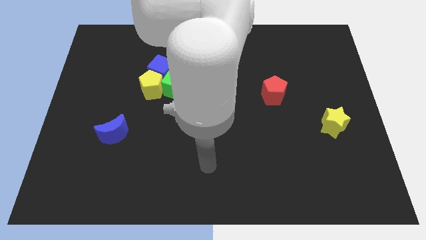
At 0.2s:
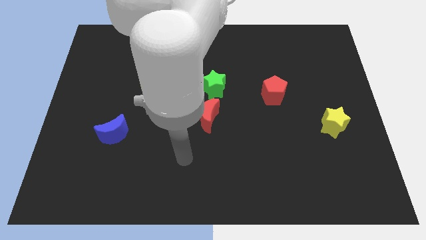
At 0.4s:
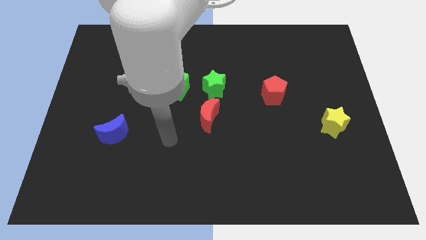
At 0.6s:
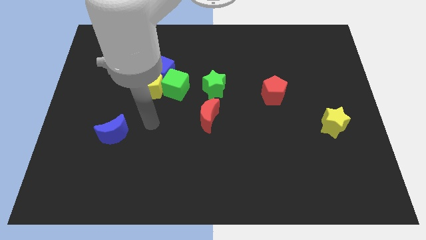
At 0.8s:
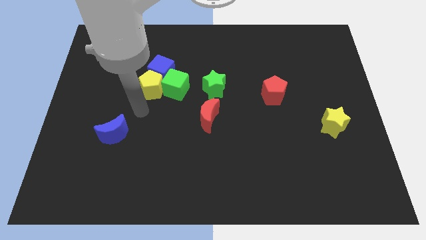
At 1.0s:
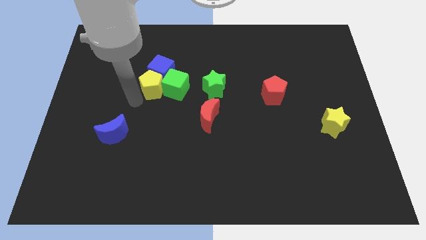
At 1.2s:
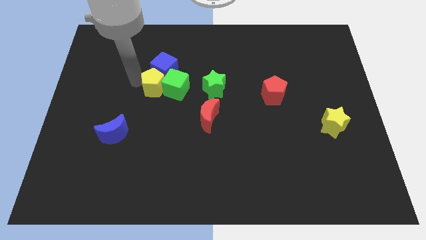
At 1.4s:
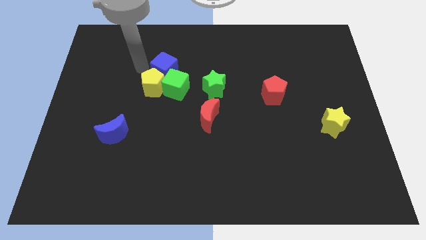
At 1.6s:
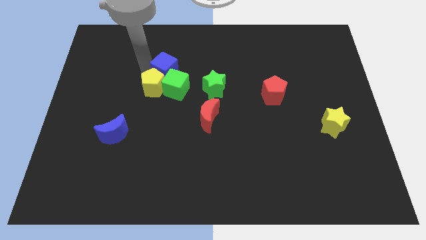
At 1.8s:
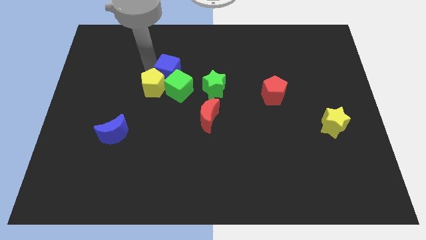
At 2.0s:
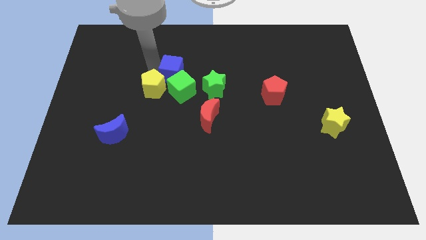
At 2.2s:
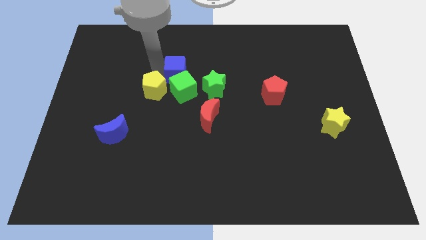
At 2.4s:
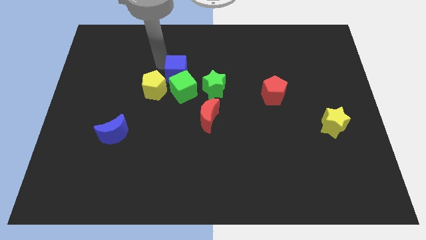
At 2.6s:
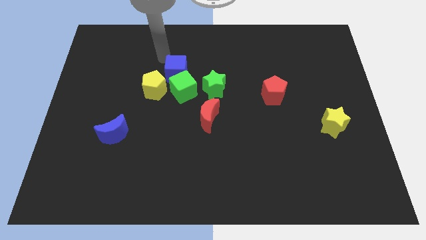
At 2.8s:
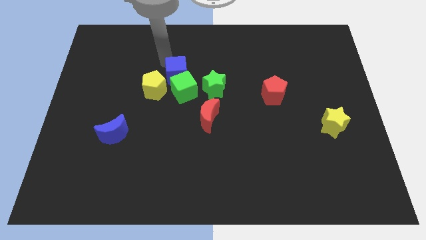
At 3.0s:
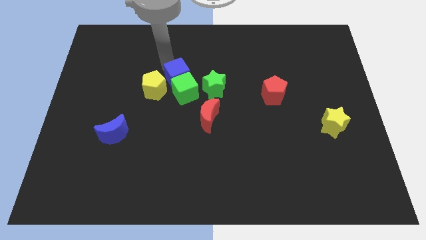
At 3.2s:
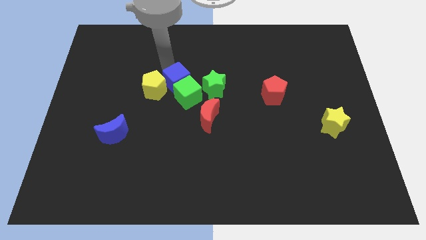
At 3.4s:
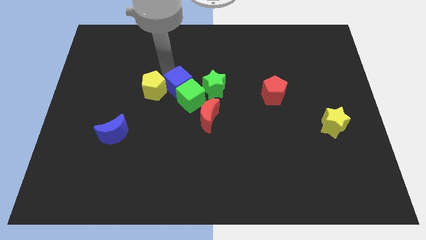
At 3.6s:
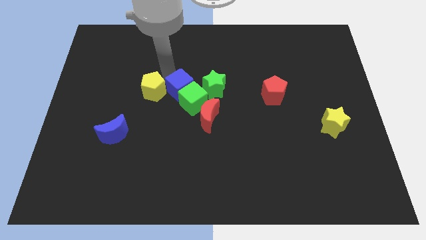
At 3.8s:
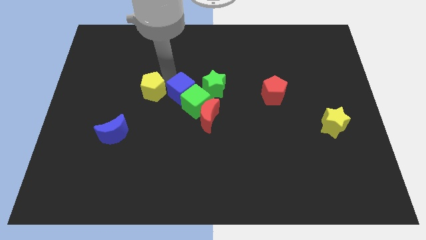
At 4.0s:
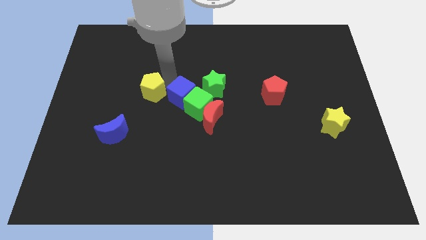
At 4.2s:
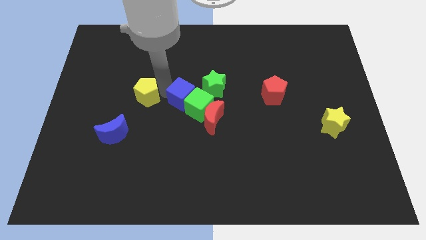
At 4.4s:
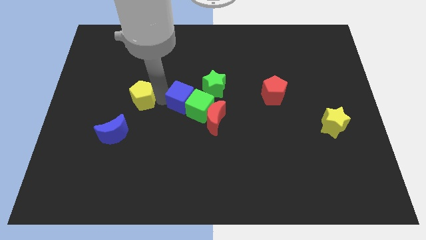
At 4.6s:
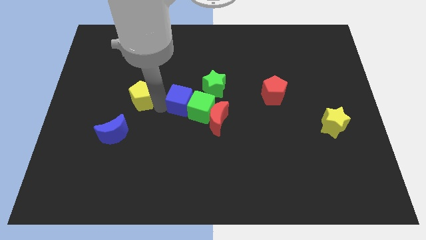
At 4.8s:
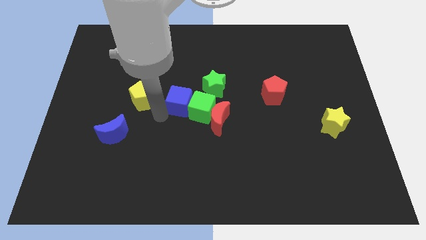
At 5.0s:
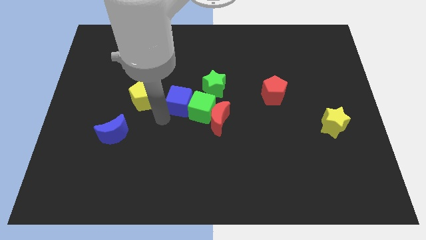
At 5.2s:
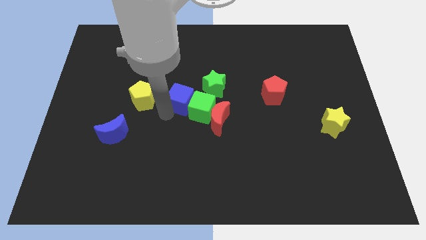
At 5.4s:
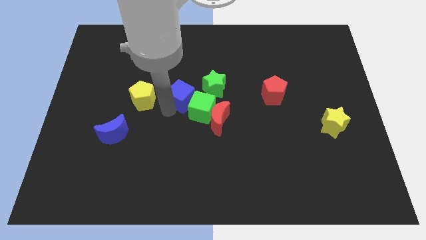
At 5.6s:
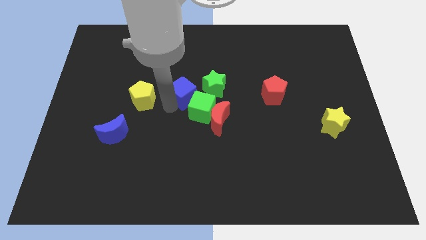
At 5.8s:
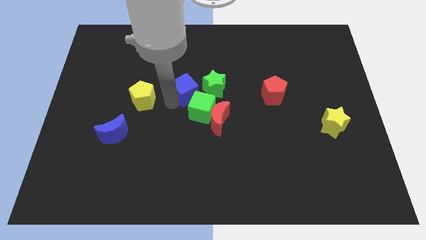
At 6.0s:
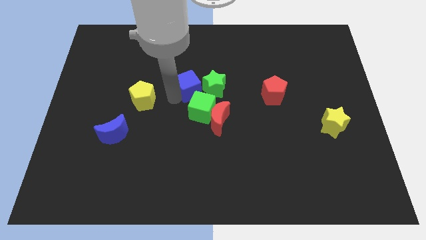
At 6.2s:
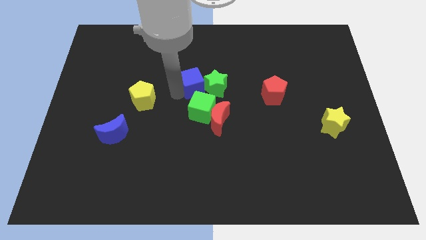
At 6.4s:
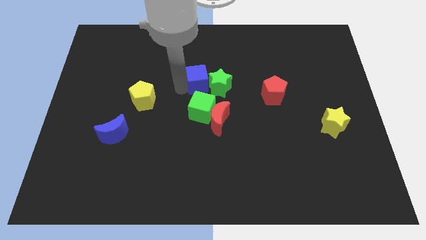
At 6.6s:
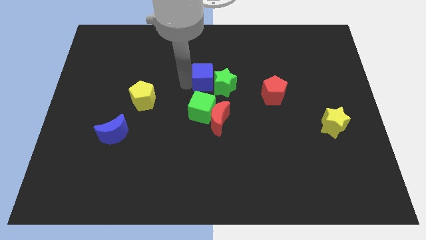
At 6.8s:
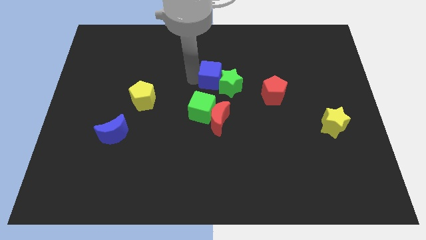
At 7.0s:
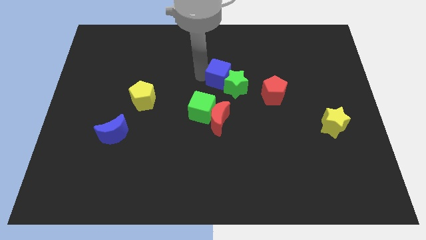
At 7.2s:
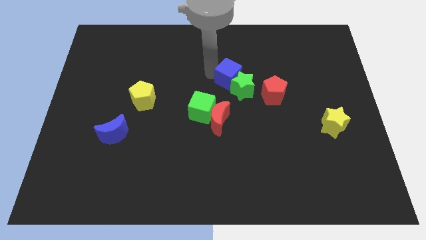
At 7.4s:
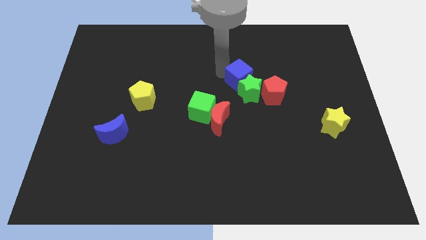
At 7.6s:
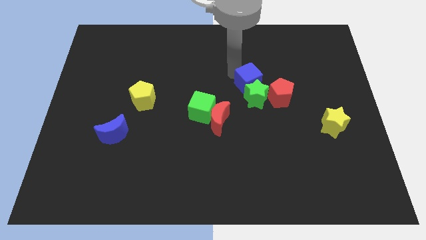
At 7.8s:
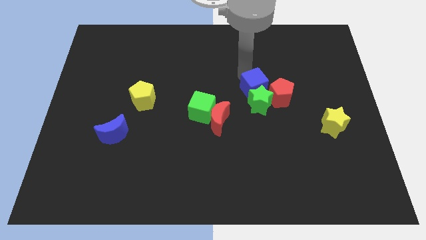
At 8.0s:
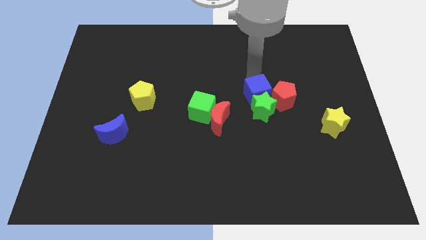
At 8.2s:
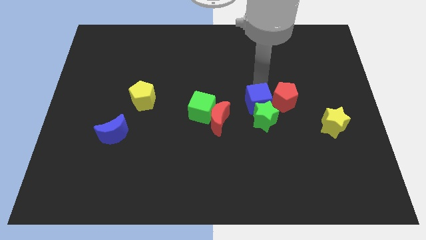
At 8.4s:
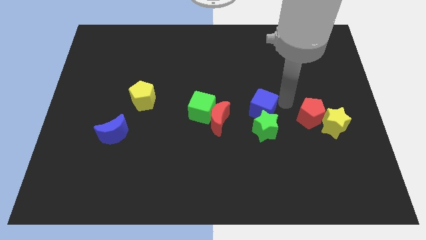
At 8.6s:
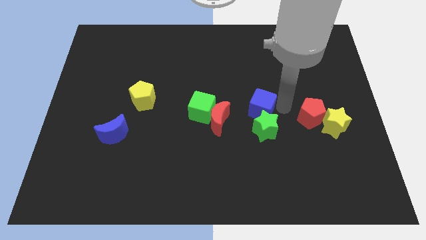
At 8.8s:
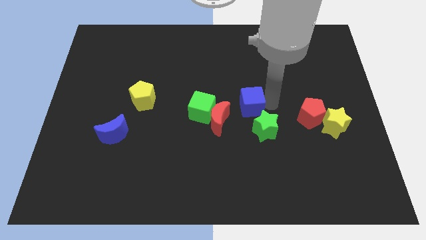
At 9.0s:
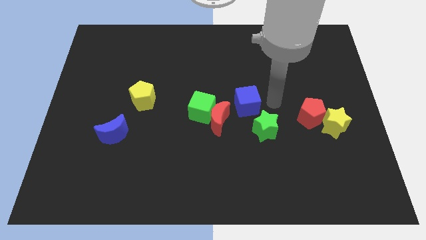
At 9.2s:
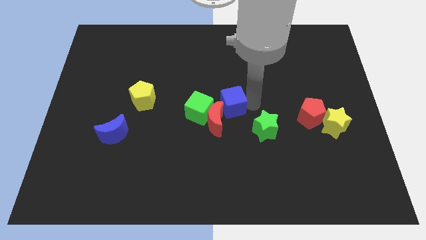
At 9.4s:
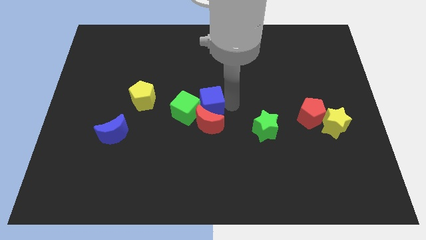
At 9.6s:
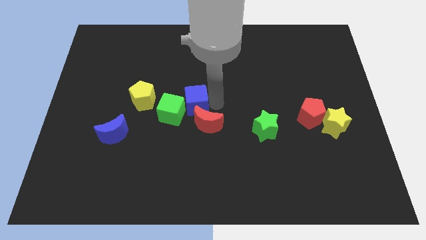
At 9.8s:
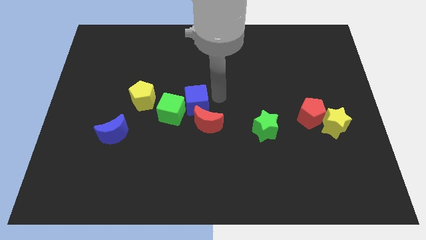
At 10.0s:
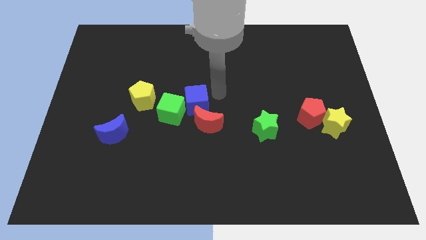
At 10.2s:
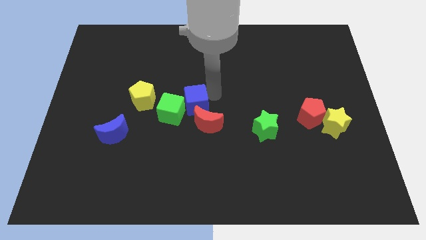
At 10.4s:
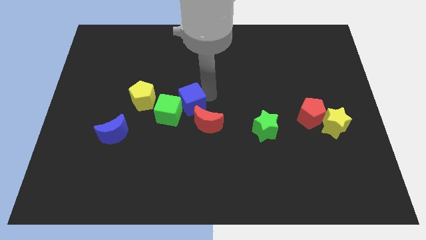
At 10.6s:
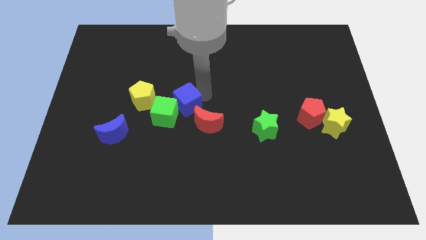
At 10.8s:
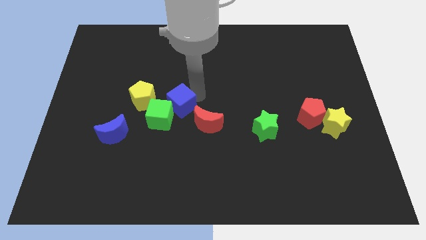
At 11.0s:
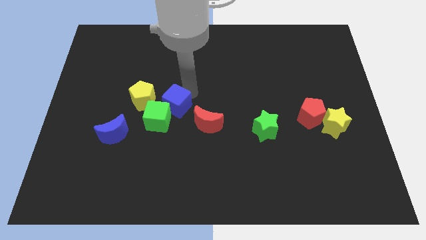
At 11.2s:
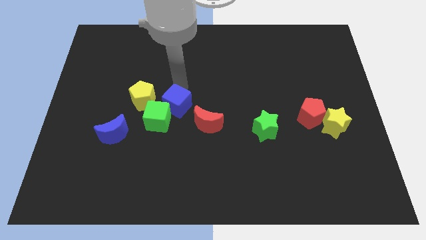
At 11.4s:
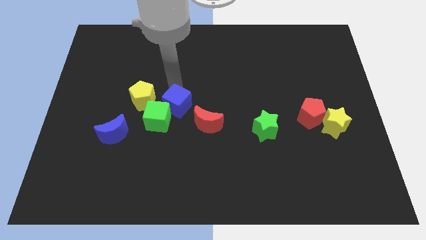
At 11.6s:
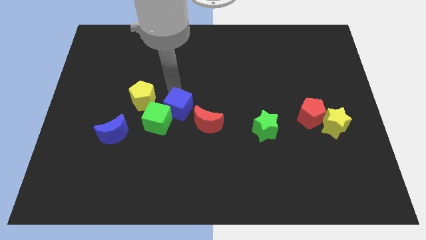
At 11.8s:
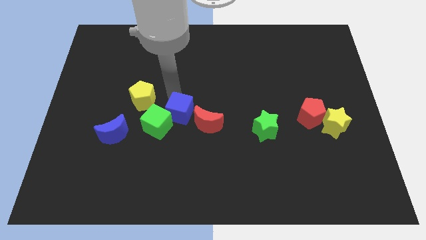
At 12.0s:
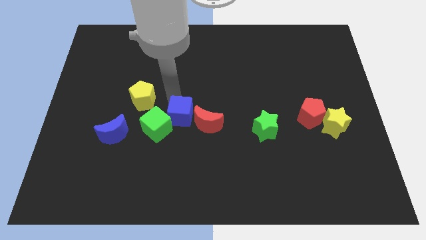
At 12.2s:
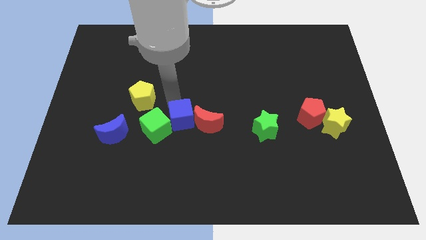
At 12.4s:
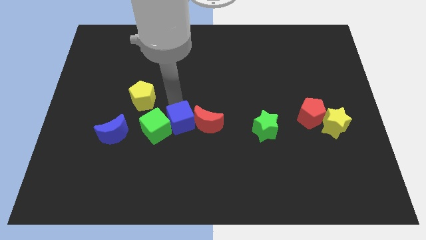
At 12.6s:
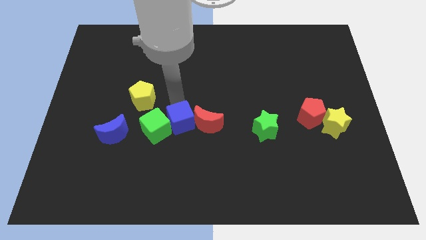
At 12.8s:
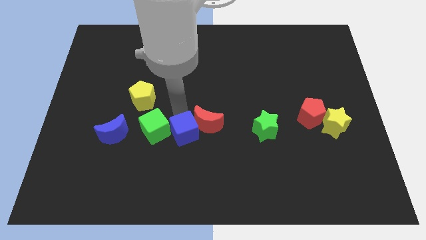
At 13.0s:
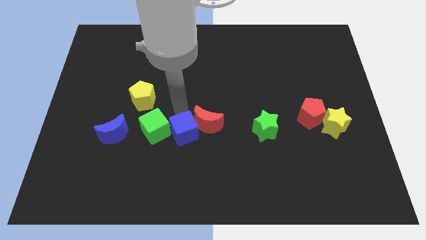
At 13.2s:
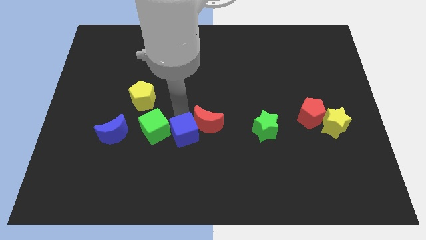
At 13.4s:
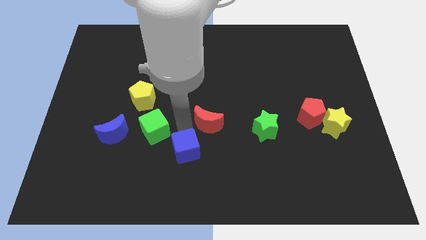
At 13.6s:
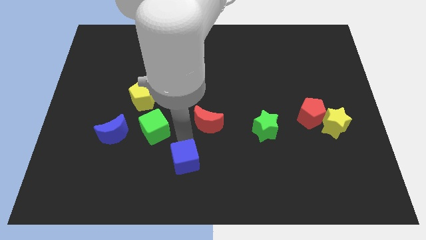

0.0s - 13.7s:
slide the blue cube to the bottom side
